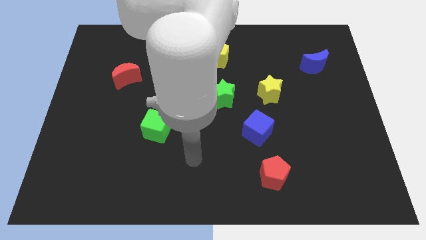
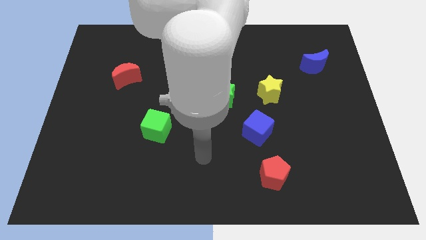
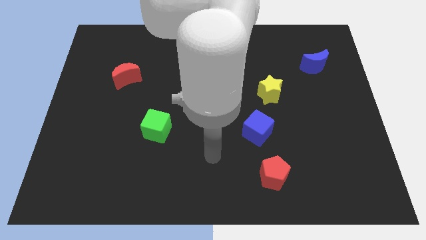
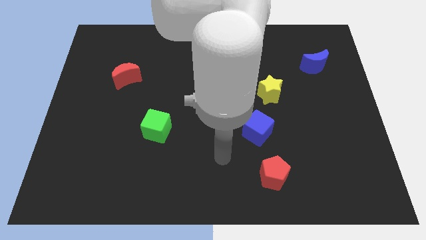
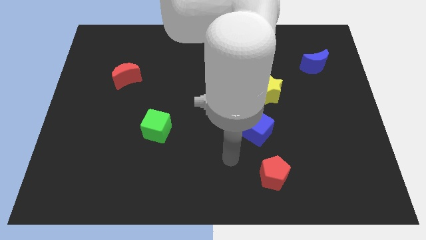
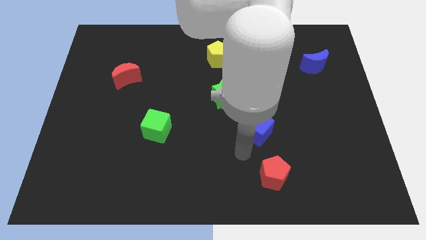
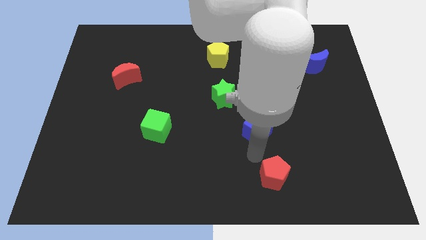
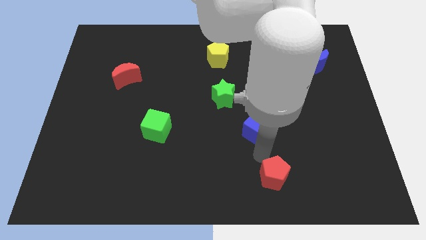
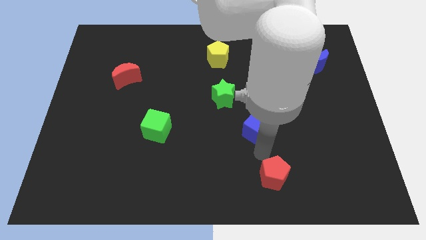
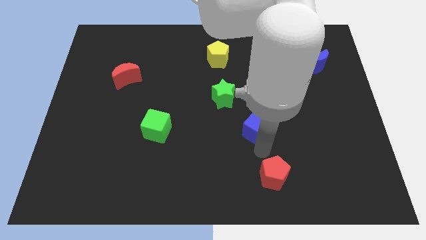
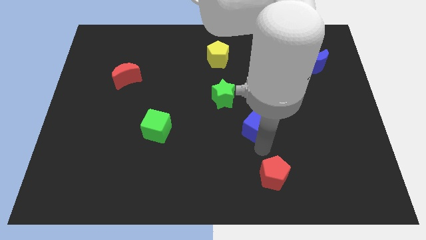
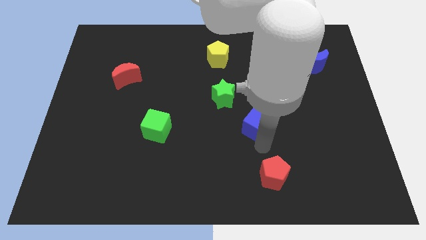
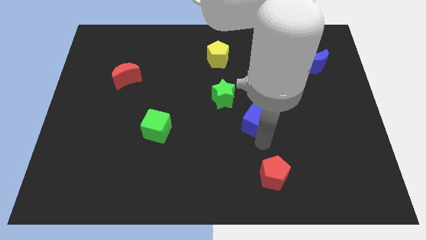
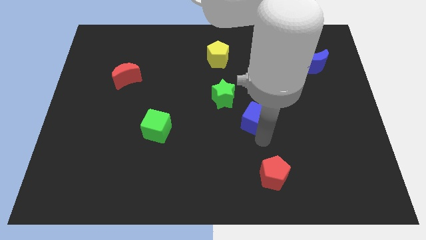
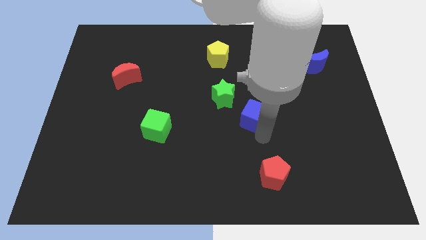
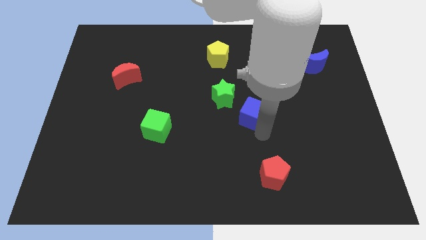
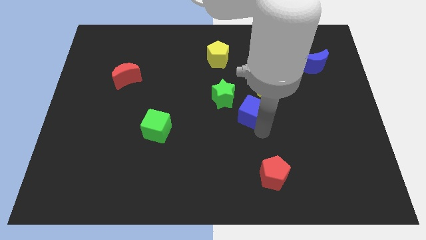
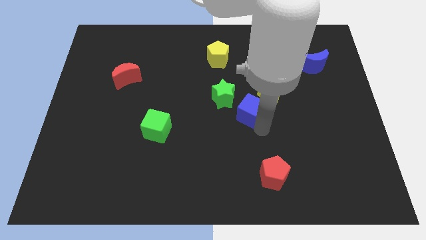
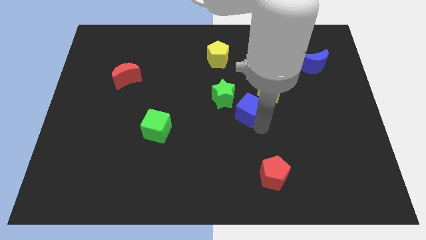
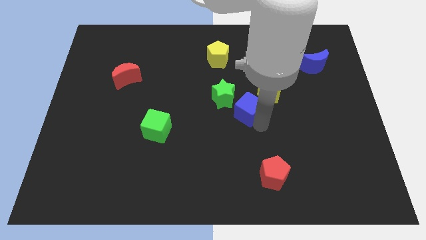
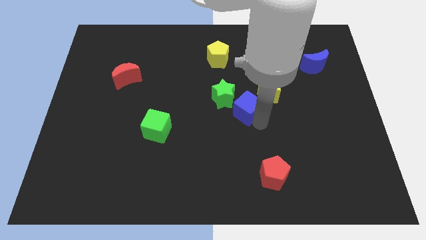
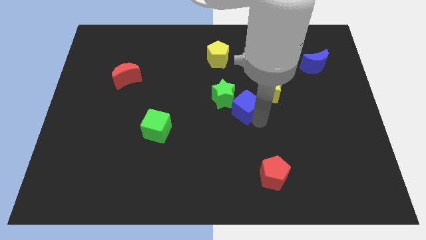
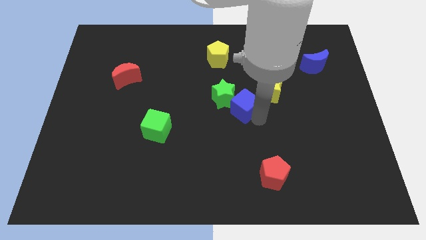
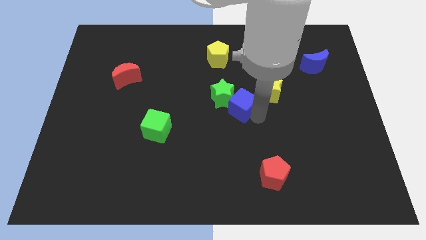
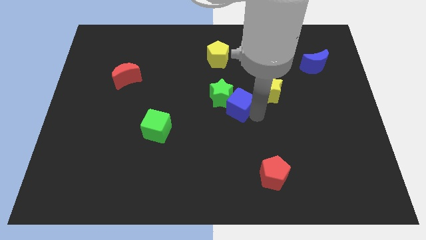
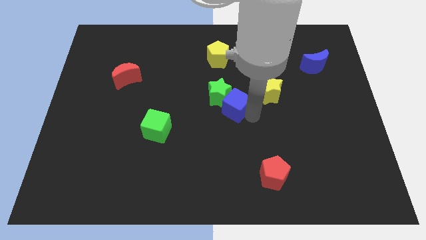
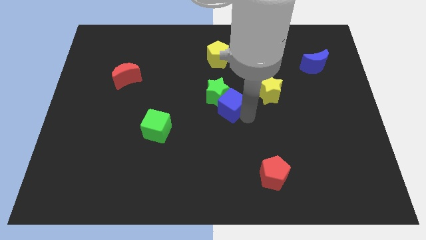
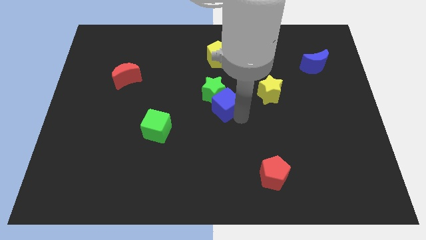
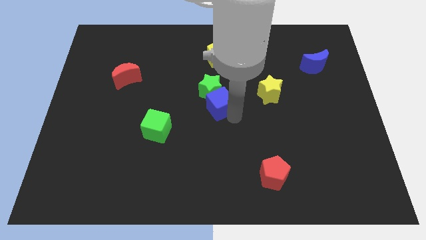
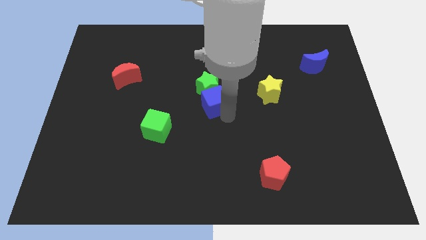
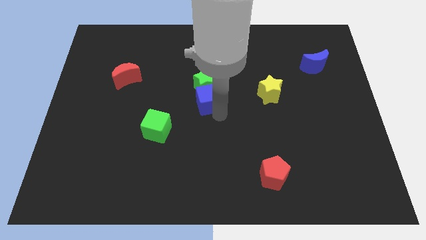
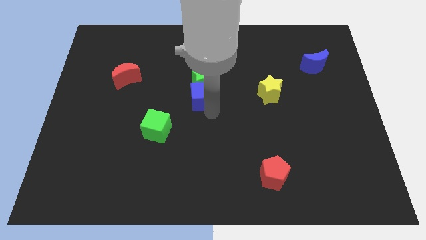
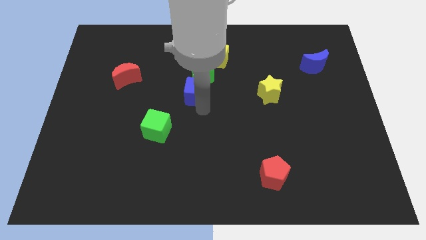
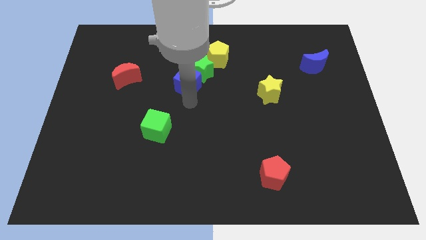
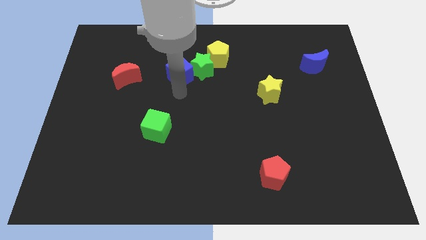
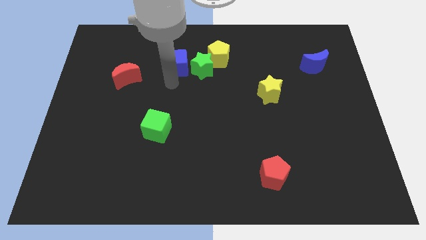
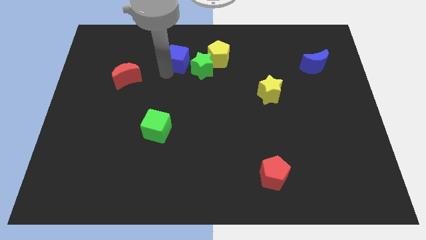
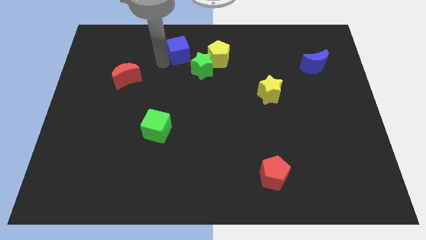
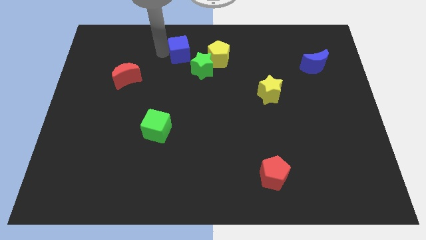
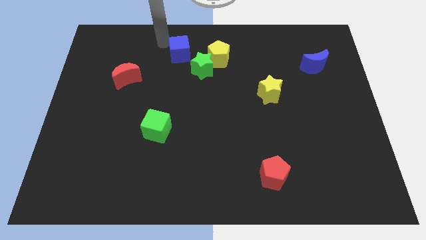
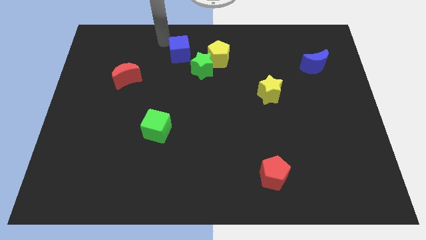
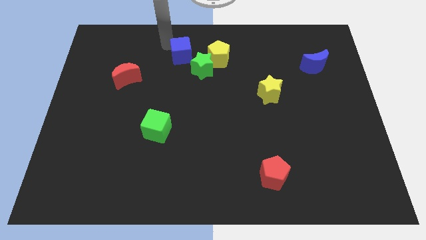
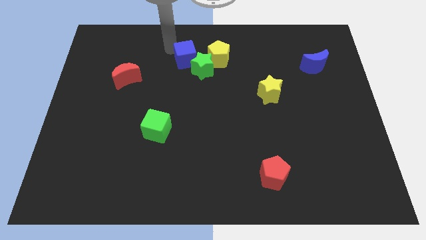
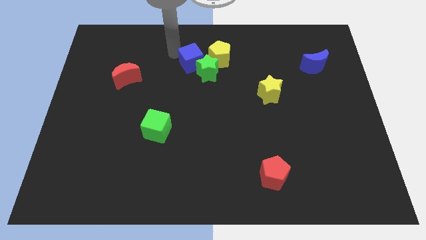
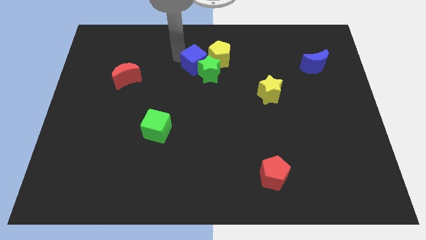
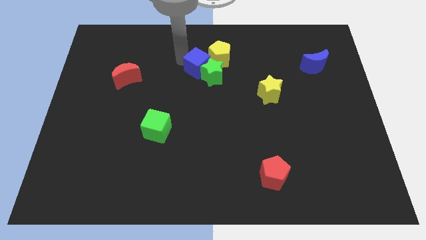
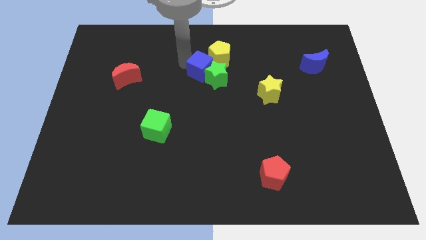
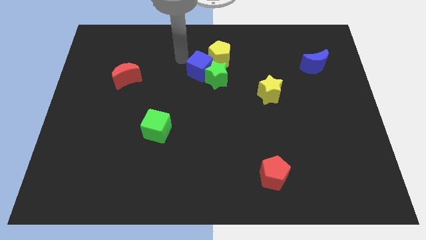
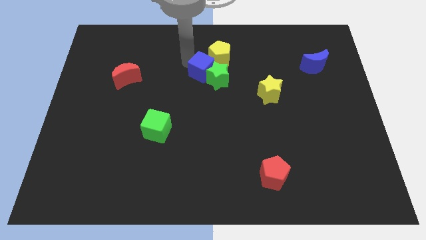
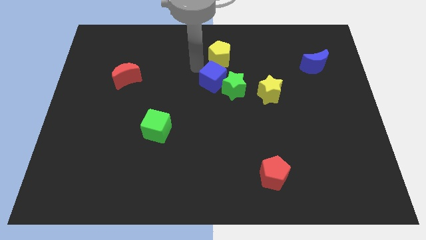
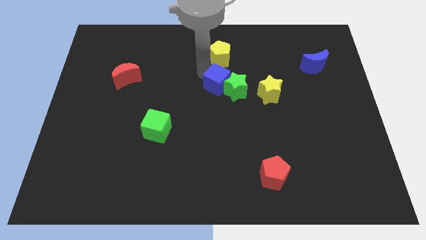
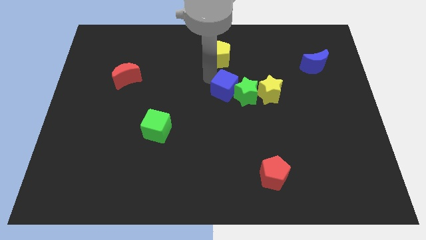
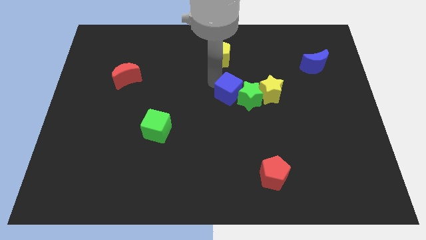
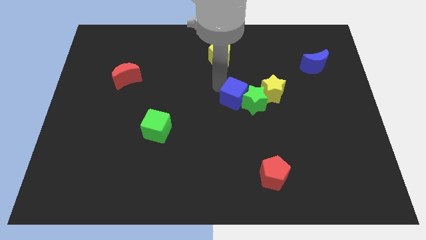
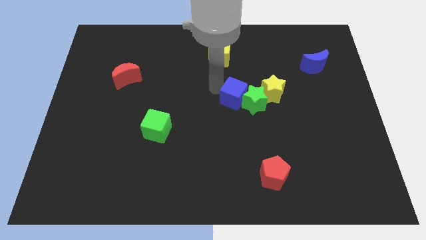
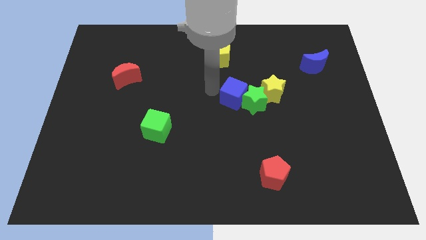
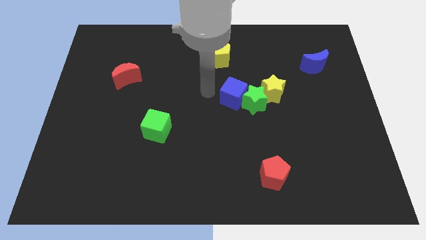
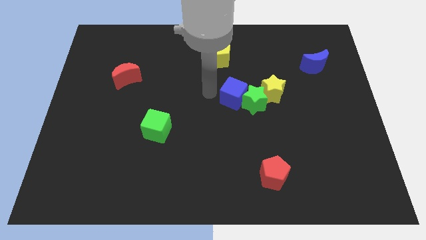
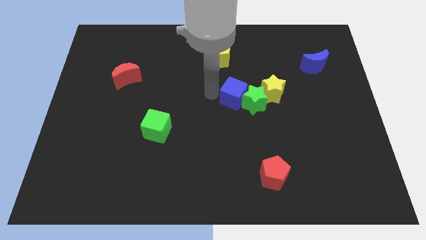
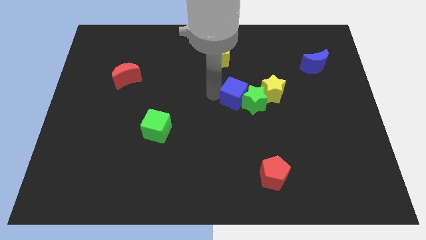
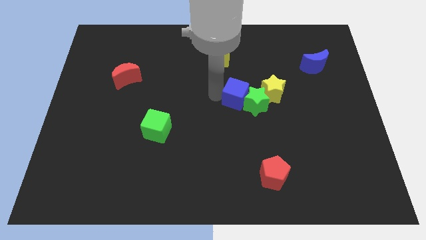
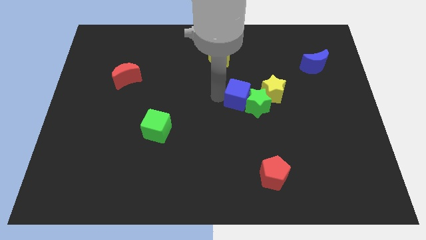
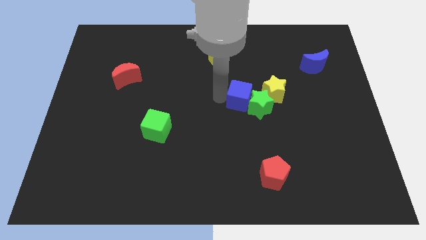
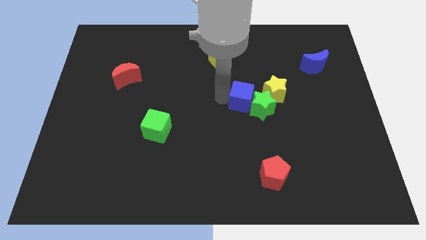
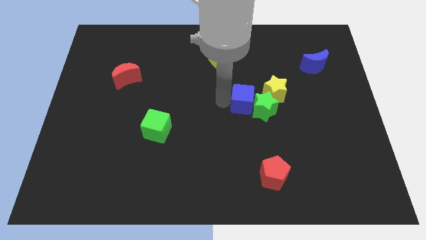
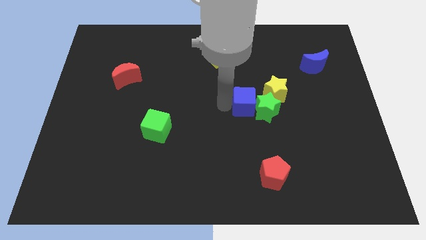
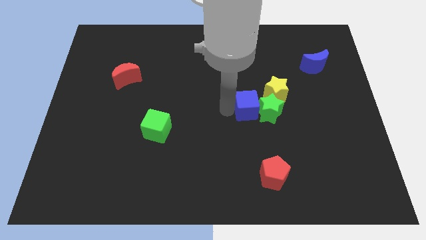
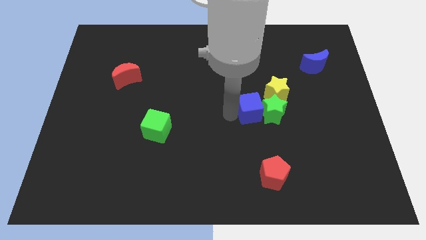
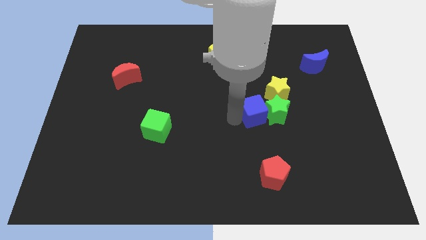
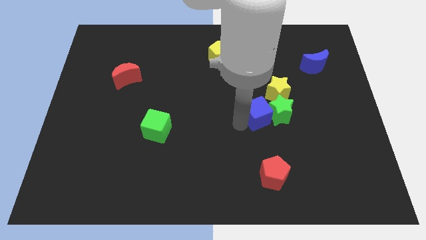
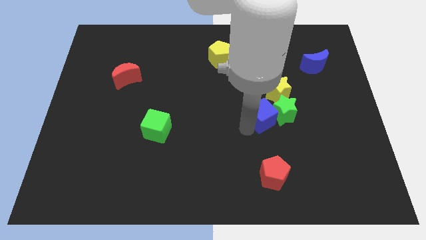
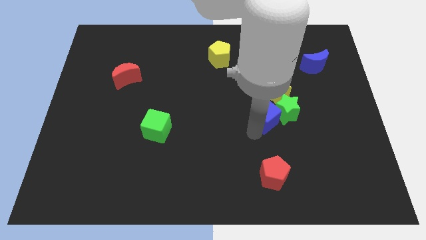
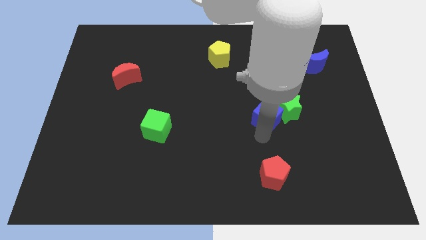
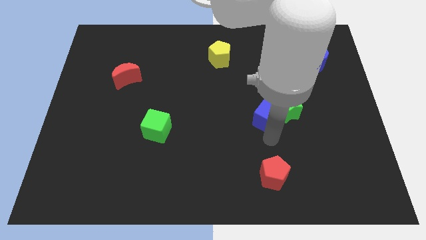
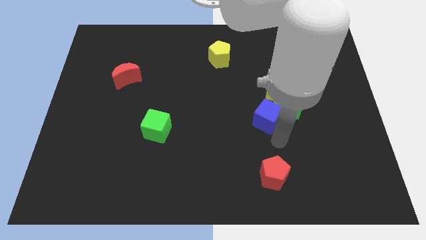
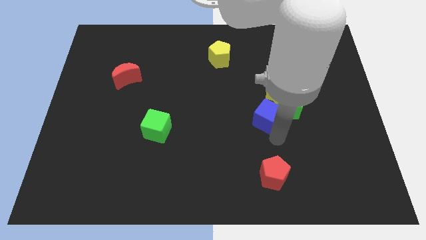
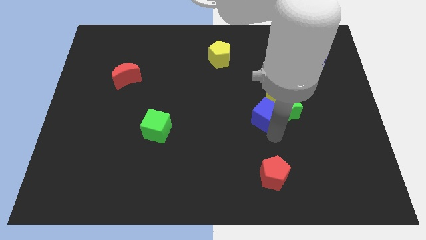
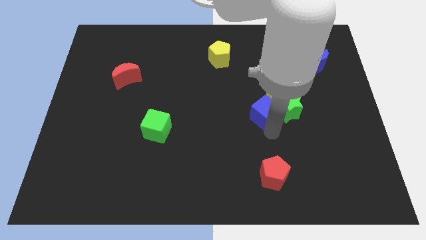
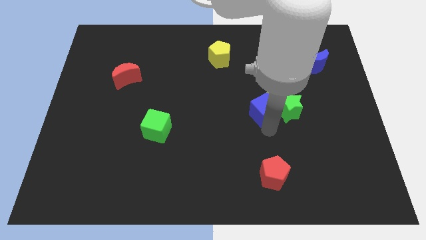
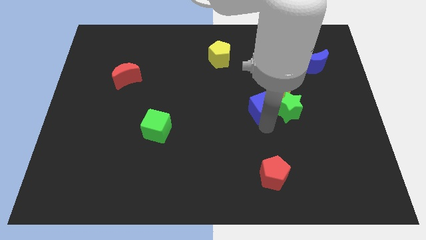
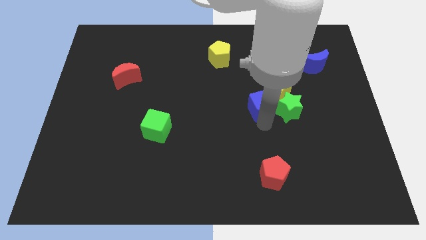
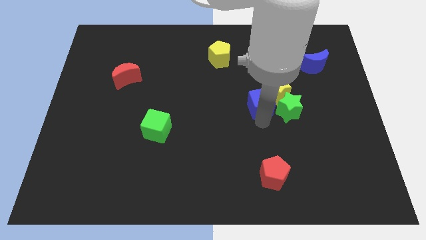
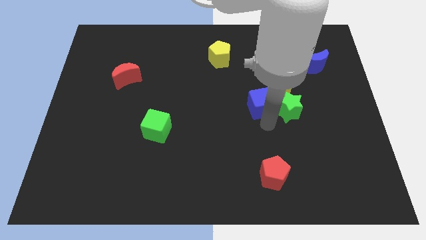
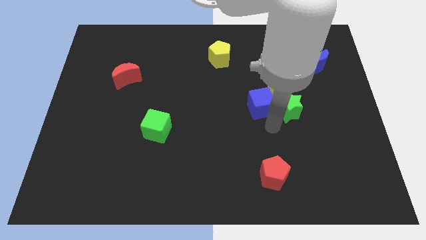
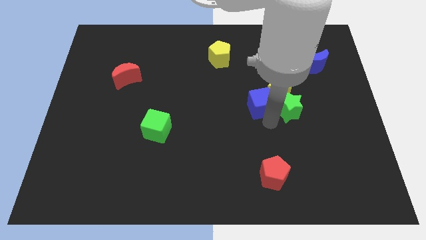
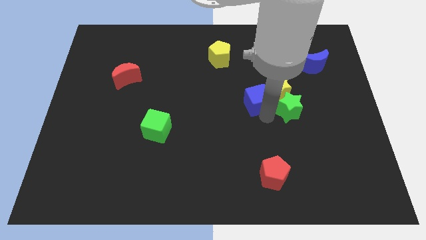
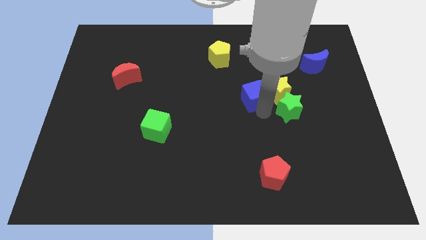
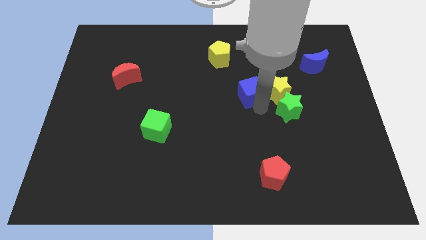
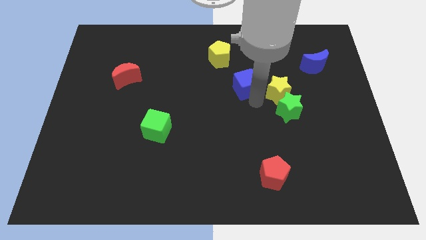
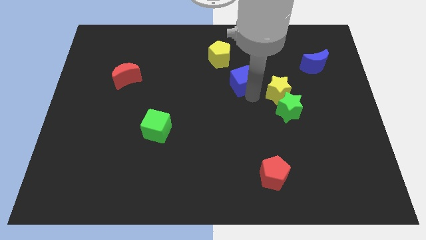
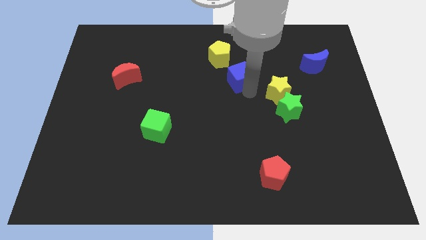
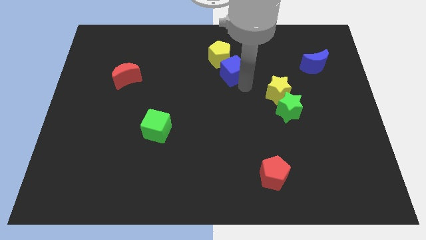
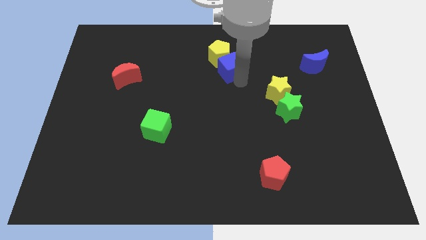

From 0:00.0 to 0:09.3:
put the blue cube to the yellow pentagon
